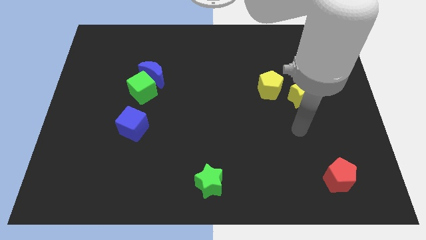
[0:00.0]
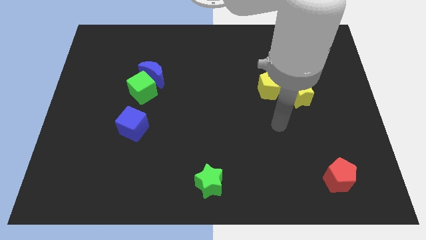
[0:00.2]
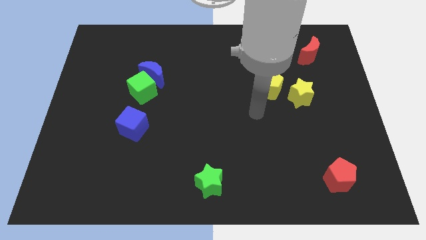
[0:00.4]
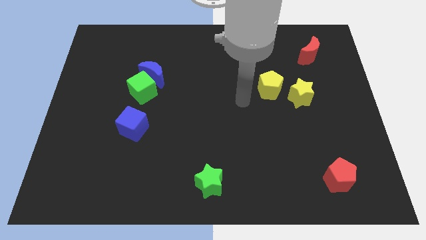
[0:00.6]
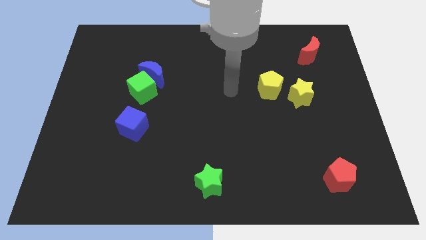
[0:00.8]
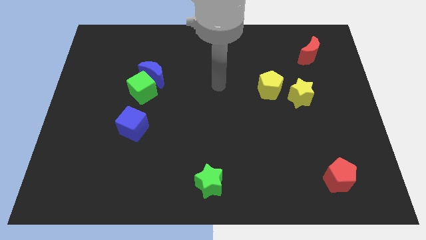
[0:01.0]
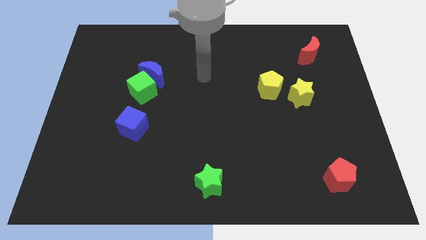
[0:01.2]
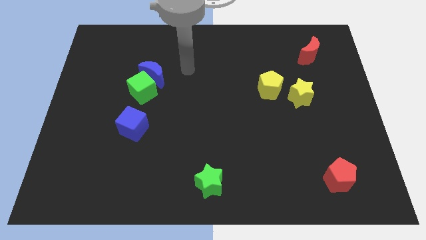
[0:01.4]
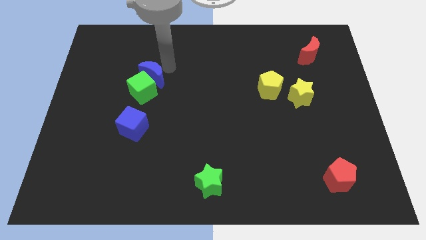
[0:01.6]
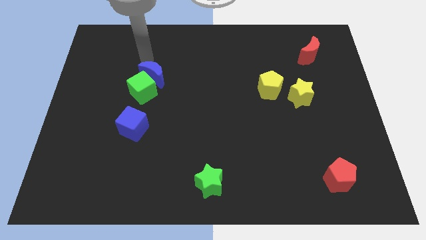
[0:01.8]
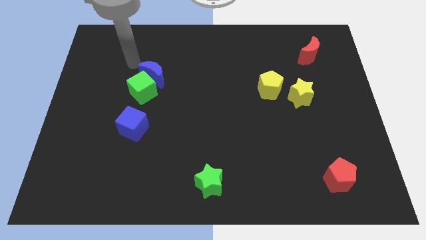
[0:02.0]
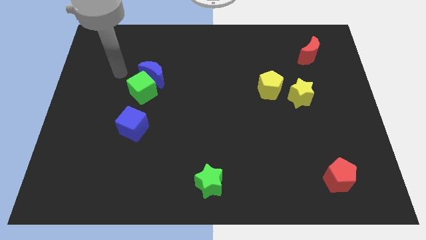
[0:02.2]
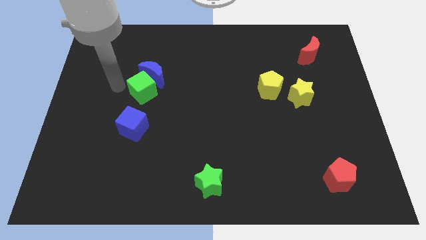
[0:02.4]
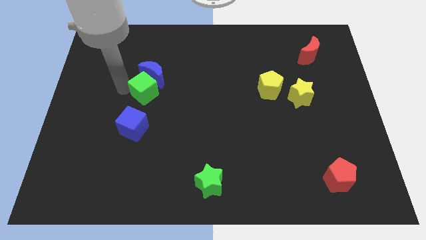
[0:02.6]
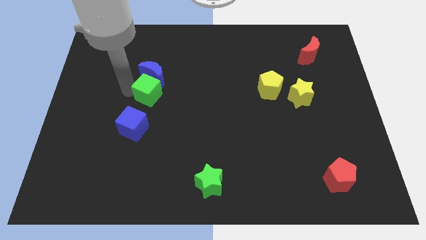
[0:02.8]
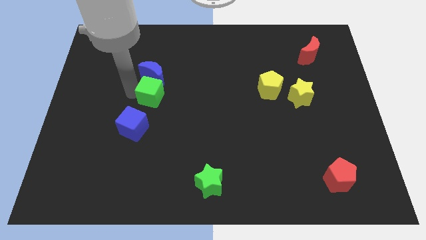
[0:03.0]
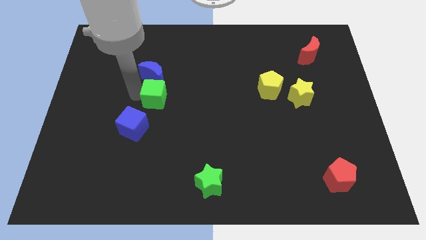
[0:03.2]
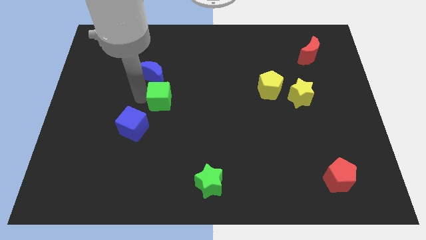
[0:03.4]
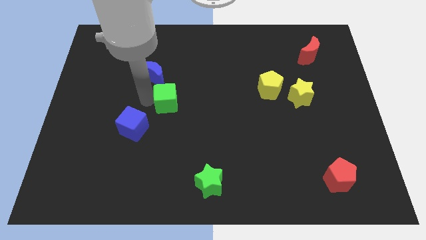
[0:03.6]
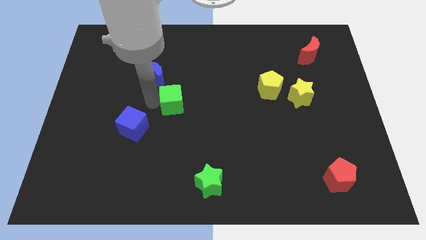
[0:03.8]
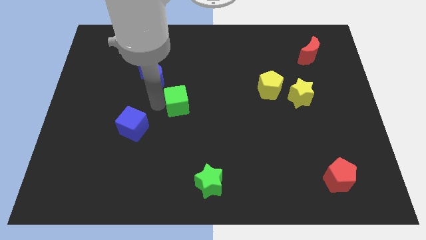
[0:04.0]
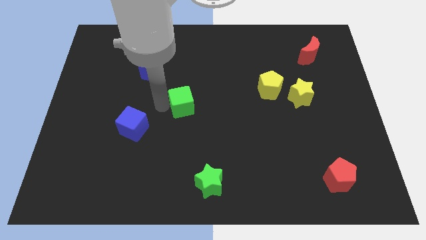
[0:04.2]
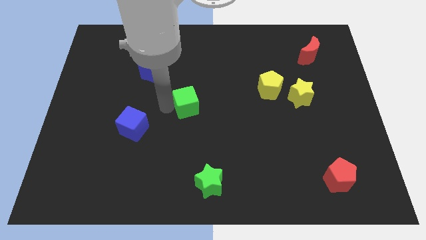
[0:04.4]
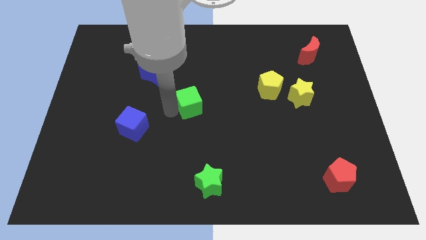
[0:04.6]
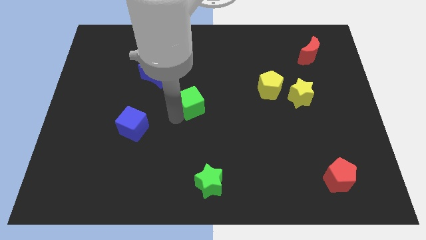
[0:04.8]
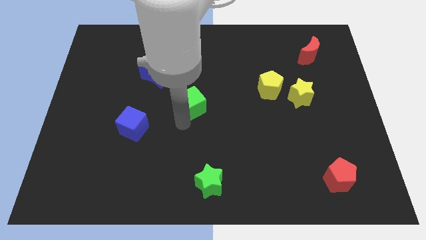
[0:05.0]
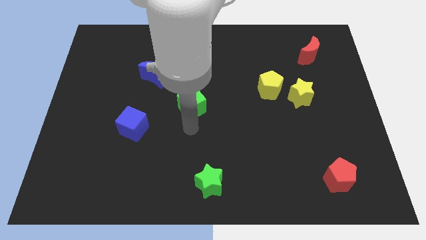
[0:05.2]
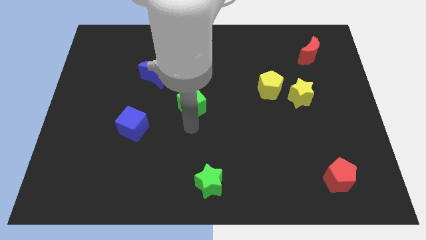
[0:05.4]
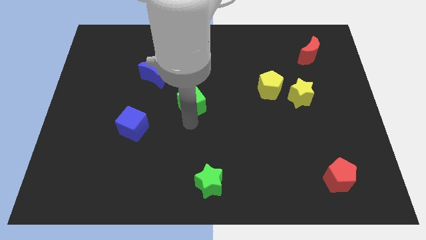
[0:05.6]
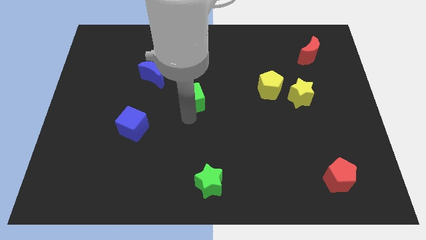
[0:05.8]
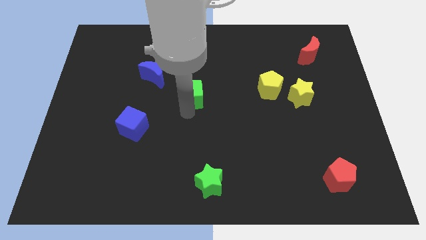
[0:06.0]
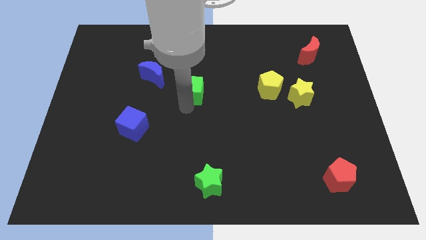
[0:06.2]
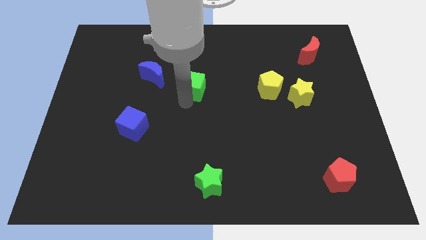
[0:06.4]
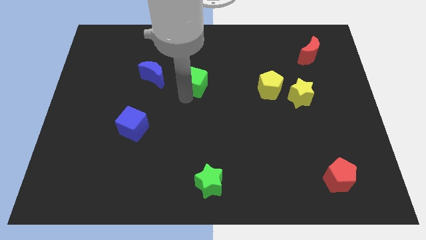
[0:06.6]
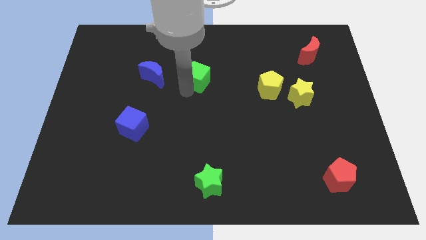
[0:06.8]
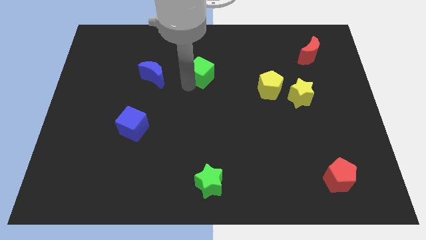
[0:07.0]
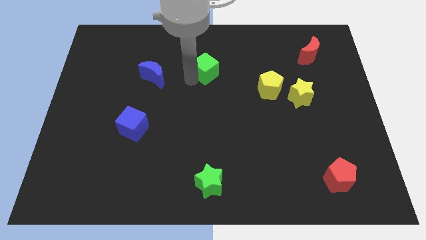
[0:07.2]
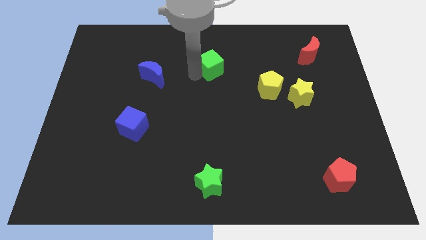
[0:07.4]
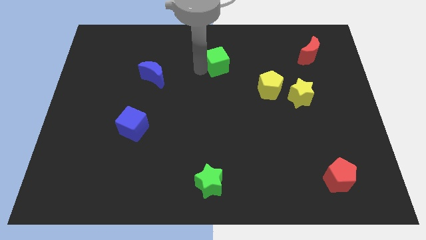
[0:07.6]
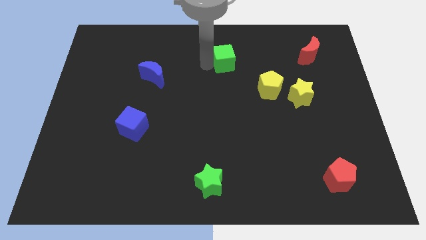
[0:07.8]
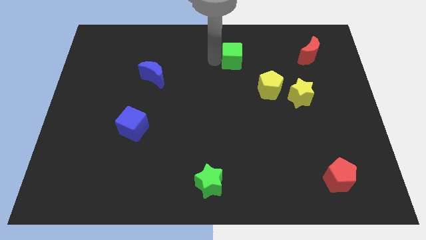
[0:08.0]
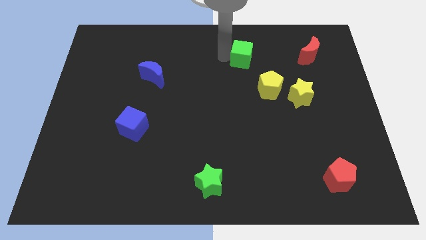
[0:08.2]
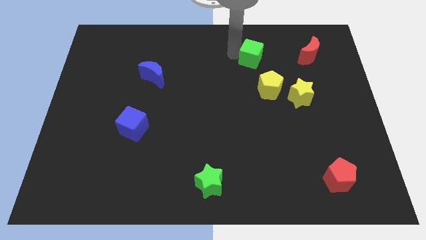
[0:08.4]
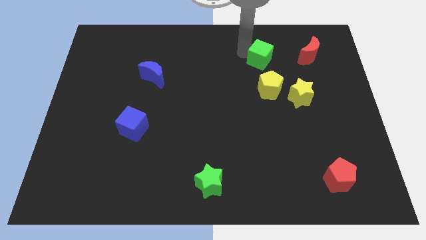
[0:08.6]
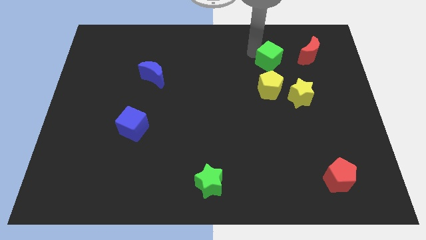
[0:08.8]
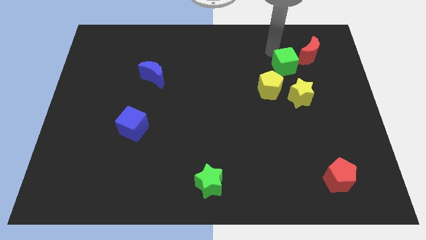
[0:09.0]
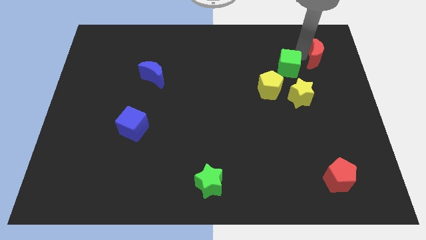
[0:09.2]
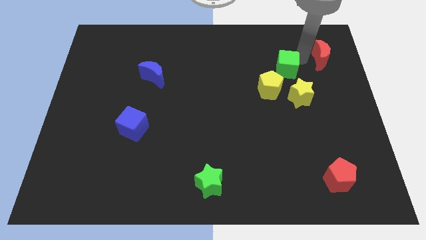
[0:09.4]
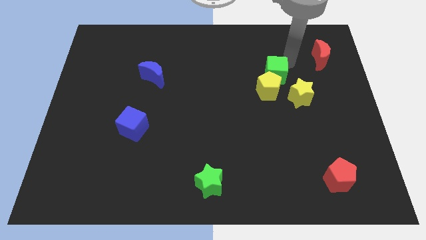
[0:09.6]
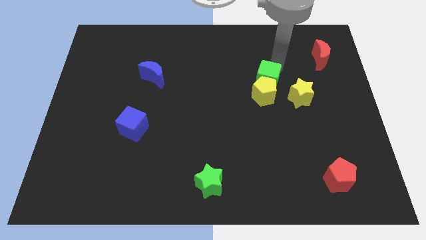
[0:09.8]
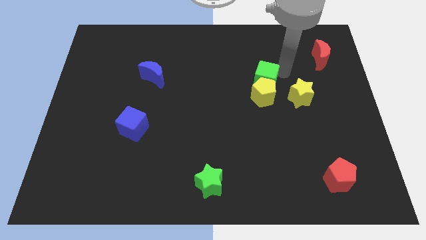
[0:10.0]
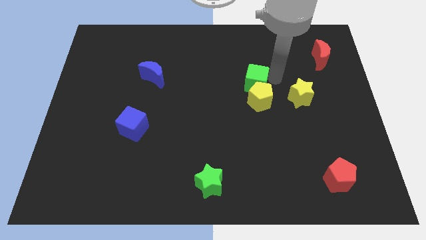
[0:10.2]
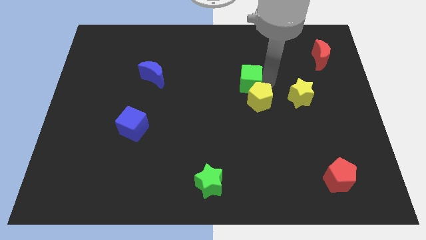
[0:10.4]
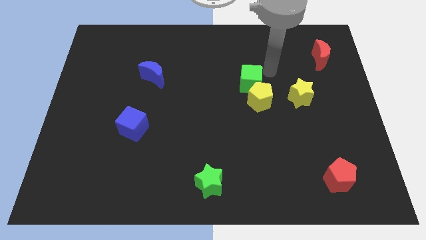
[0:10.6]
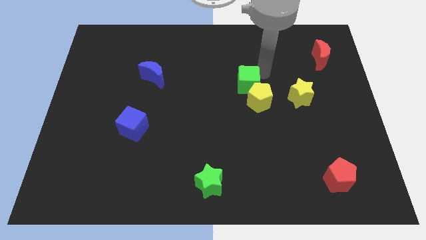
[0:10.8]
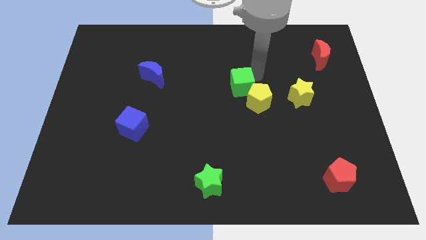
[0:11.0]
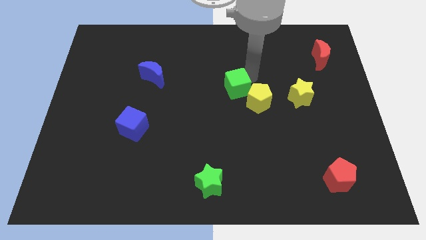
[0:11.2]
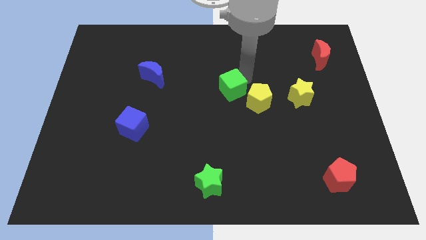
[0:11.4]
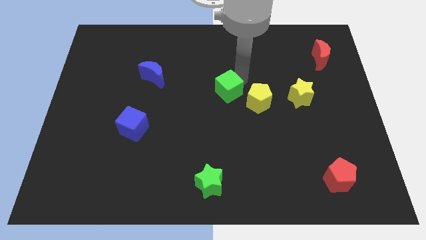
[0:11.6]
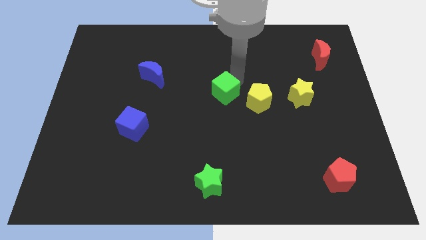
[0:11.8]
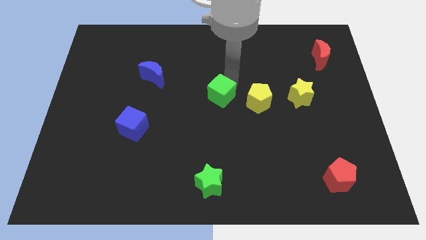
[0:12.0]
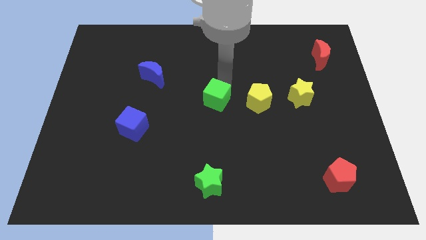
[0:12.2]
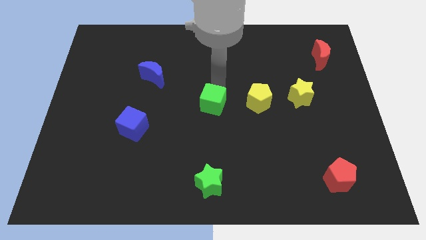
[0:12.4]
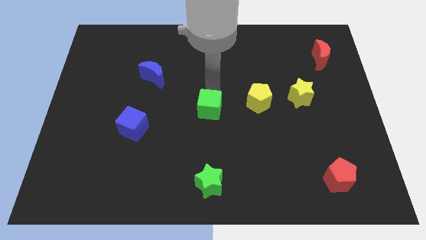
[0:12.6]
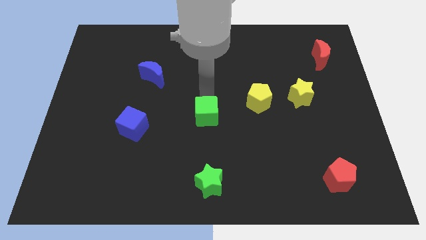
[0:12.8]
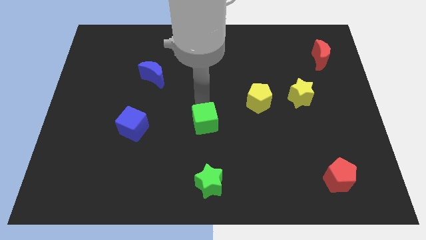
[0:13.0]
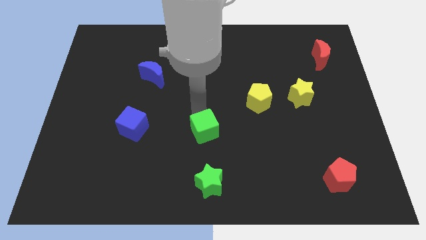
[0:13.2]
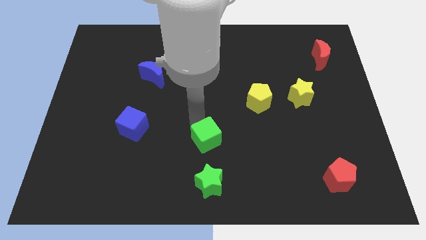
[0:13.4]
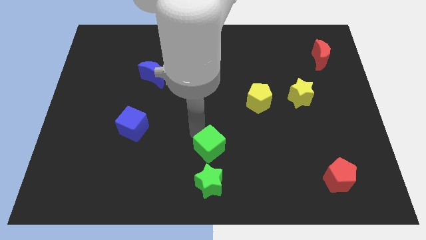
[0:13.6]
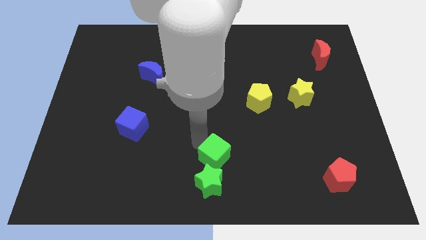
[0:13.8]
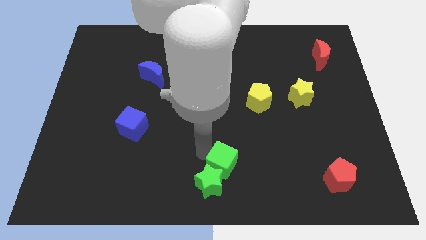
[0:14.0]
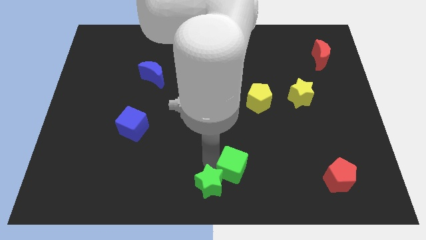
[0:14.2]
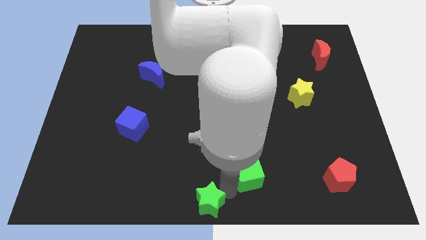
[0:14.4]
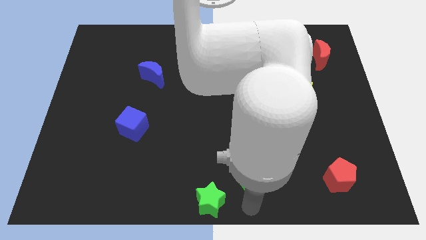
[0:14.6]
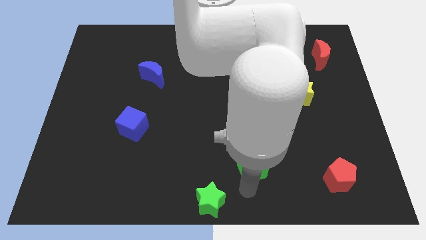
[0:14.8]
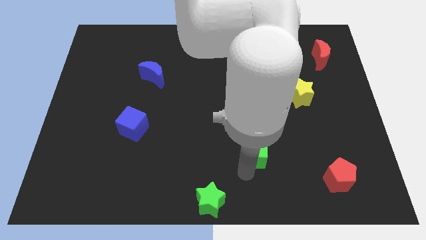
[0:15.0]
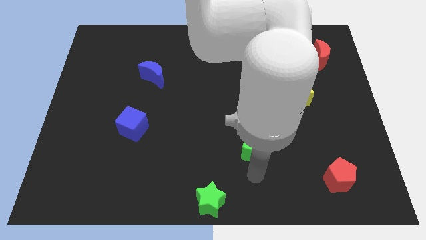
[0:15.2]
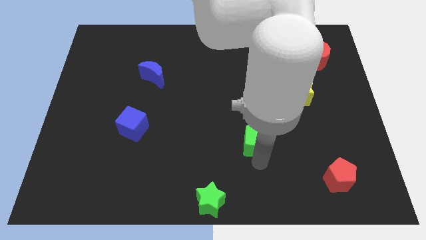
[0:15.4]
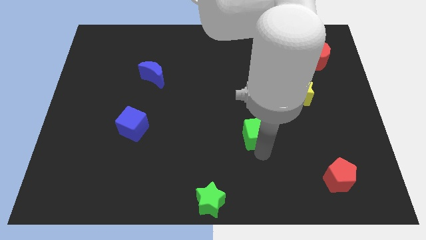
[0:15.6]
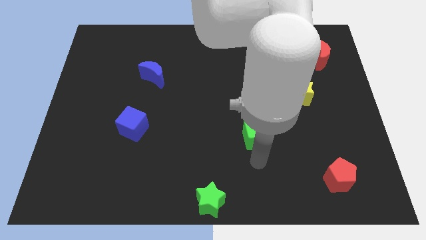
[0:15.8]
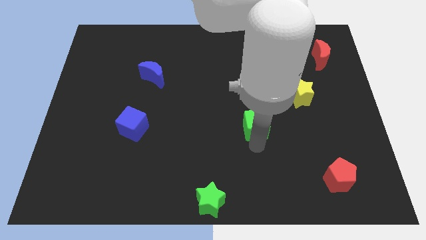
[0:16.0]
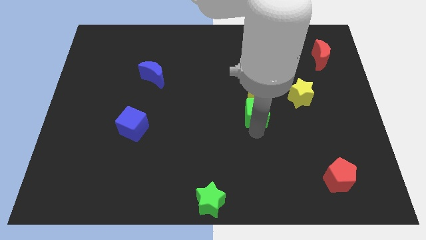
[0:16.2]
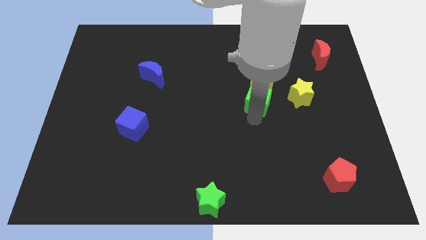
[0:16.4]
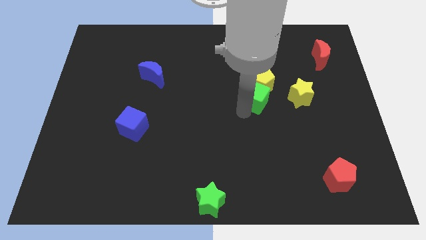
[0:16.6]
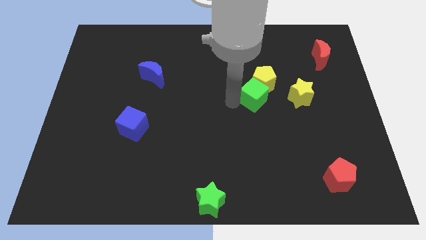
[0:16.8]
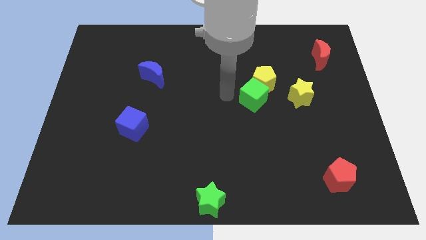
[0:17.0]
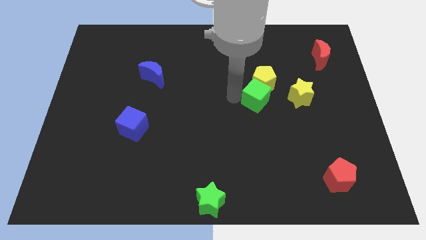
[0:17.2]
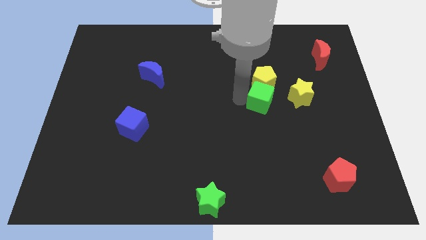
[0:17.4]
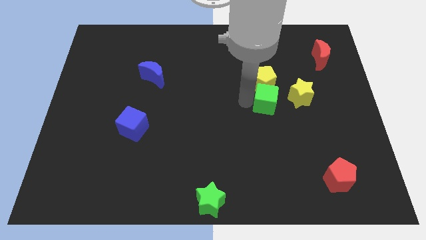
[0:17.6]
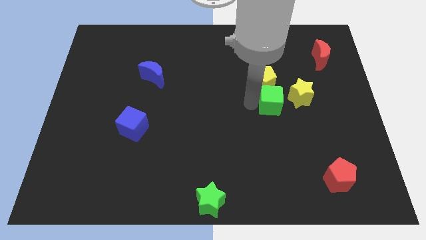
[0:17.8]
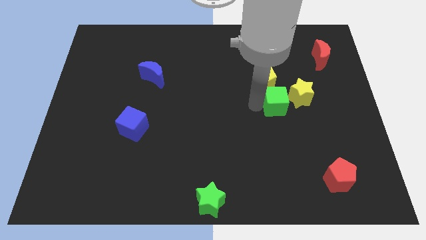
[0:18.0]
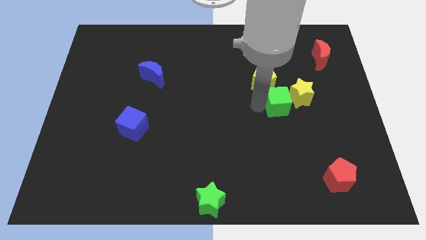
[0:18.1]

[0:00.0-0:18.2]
slide the green cube next to the yellow star
